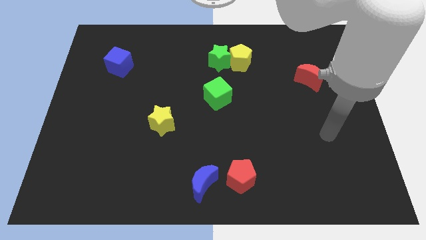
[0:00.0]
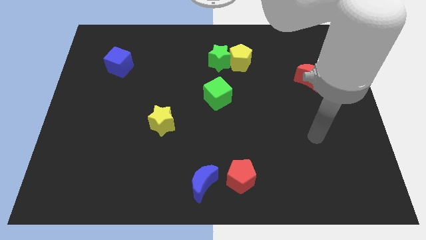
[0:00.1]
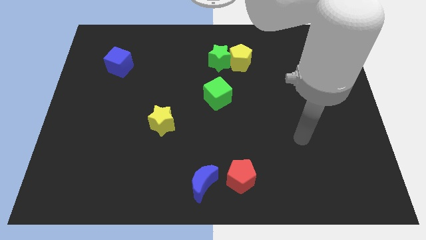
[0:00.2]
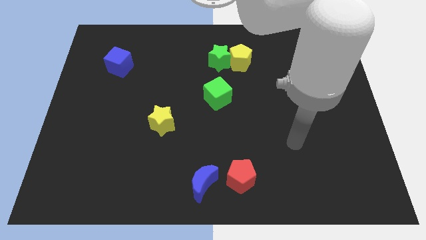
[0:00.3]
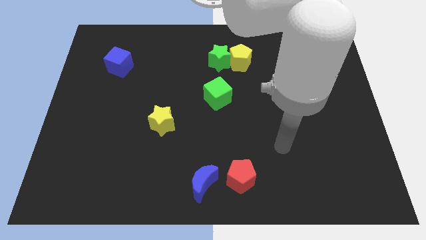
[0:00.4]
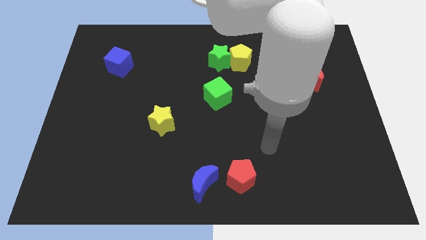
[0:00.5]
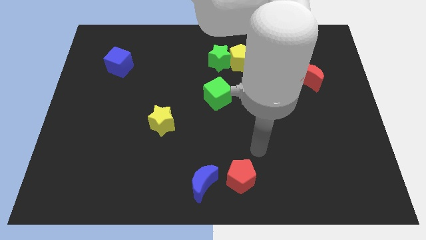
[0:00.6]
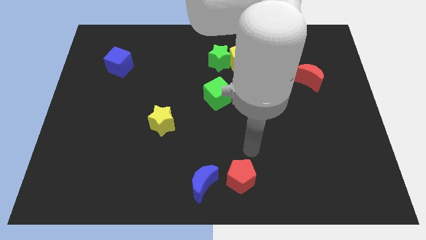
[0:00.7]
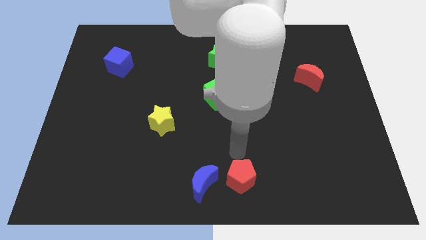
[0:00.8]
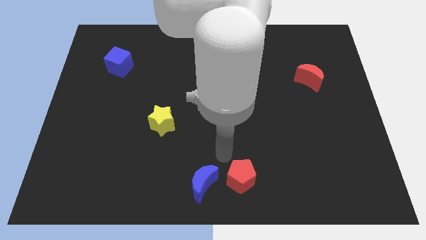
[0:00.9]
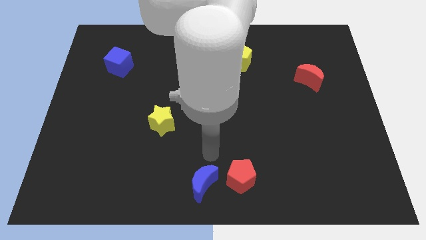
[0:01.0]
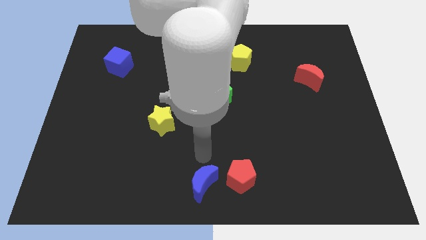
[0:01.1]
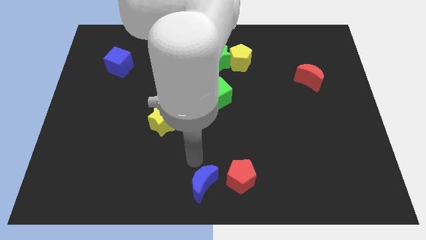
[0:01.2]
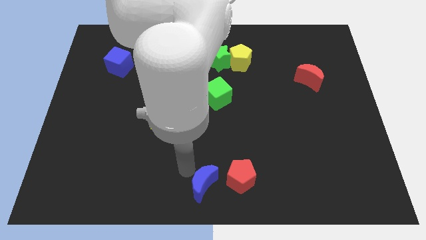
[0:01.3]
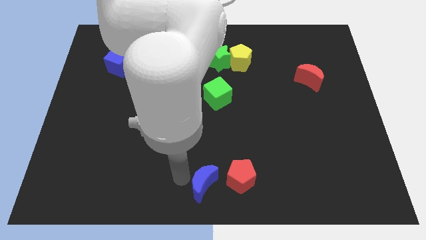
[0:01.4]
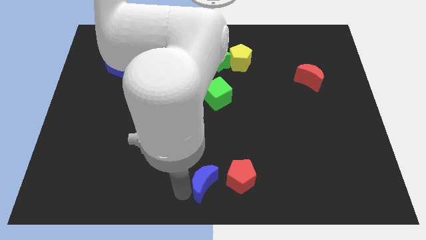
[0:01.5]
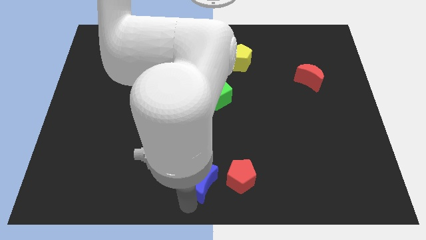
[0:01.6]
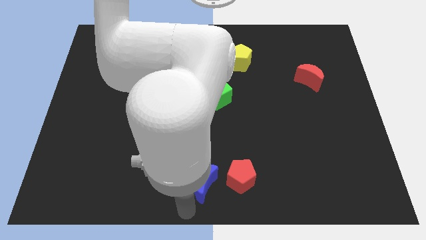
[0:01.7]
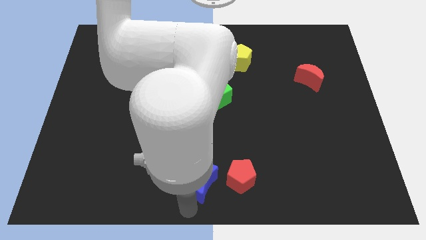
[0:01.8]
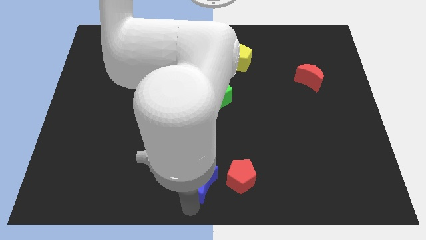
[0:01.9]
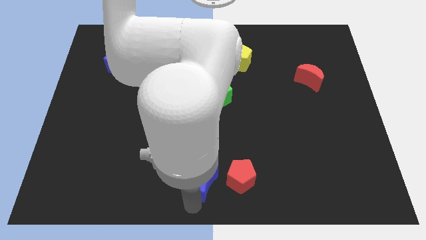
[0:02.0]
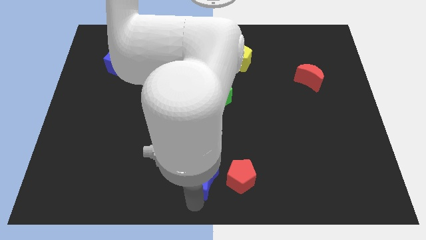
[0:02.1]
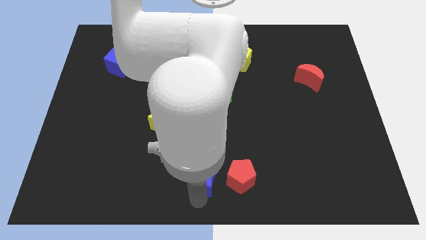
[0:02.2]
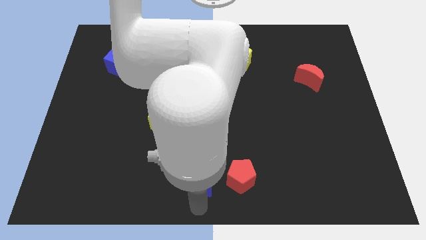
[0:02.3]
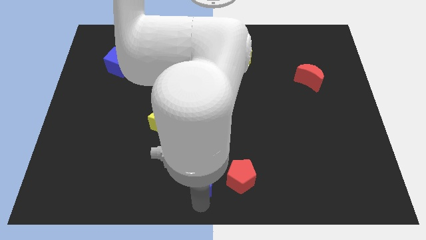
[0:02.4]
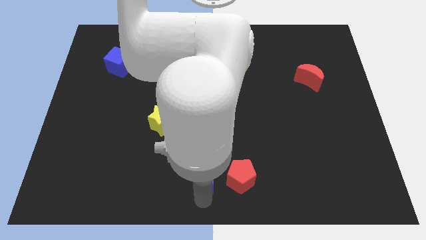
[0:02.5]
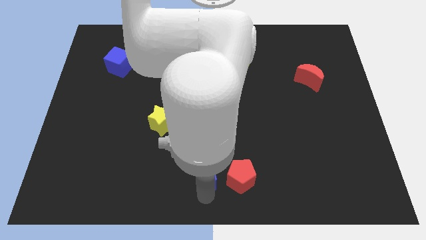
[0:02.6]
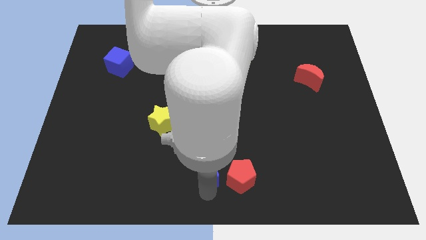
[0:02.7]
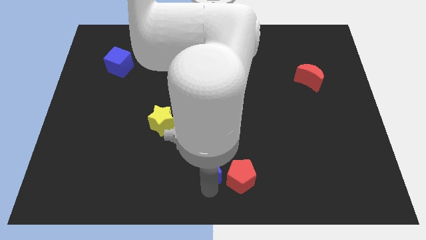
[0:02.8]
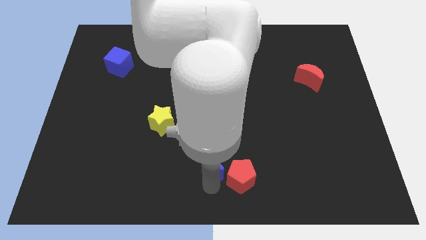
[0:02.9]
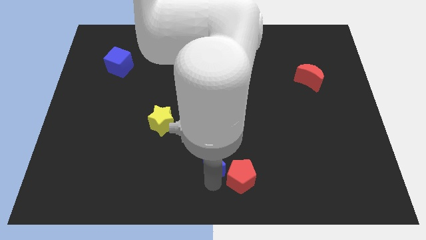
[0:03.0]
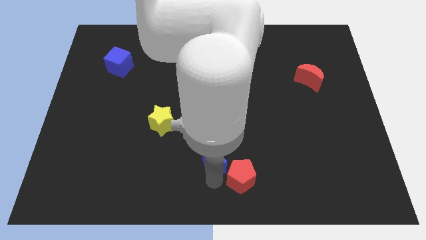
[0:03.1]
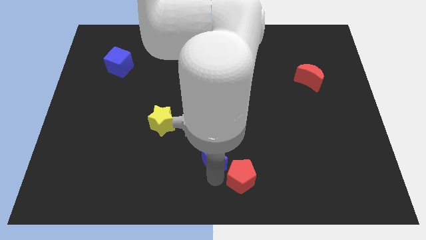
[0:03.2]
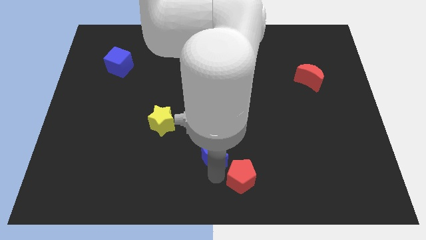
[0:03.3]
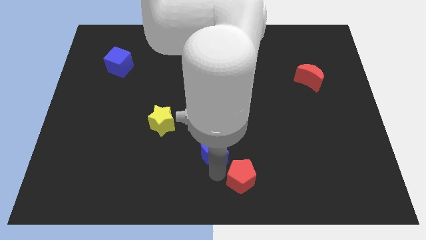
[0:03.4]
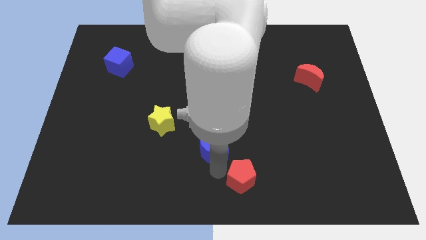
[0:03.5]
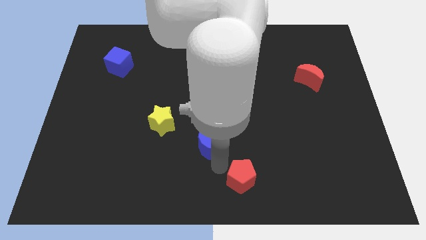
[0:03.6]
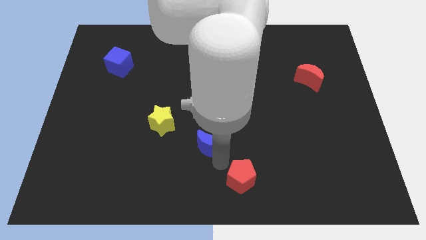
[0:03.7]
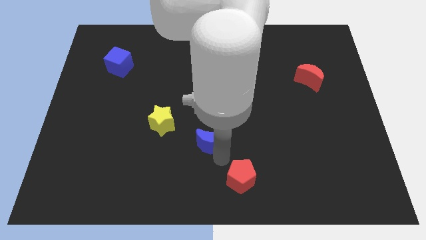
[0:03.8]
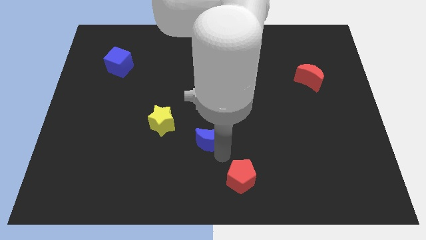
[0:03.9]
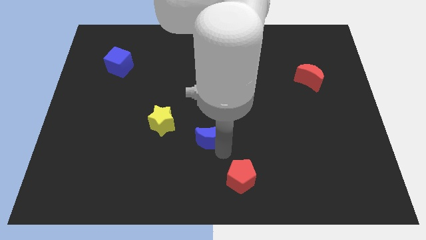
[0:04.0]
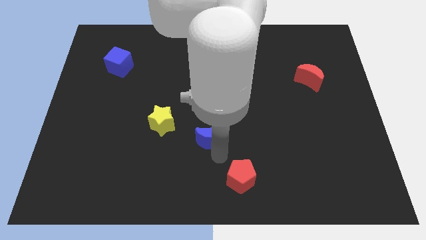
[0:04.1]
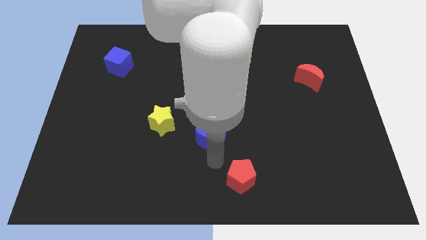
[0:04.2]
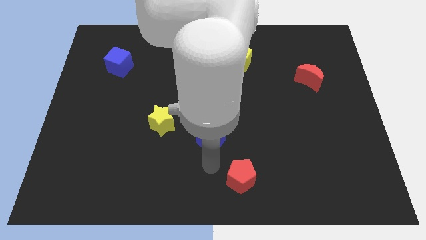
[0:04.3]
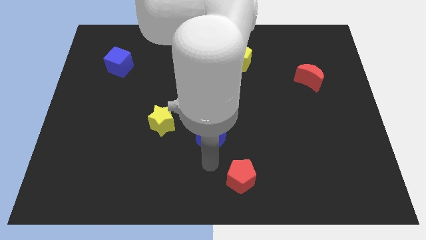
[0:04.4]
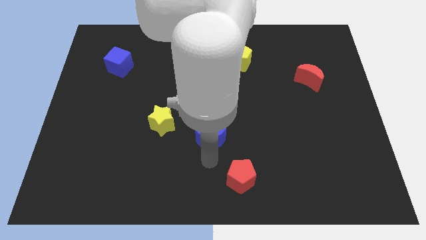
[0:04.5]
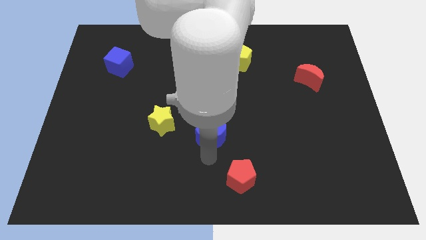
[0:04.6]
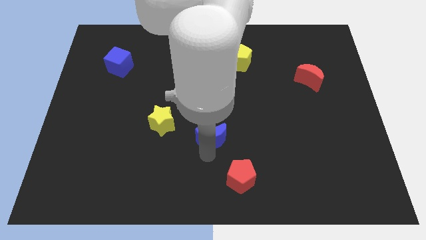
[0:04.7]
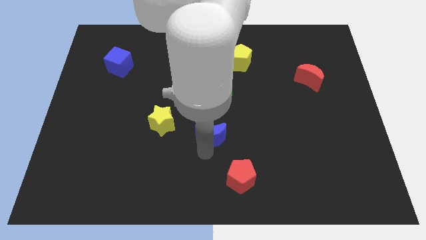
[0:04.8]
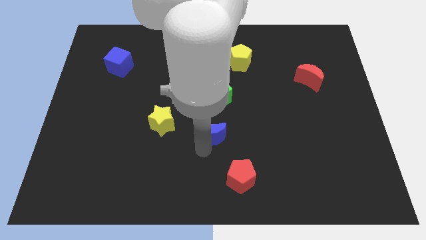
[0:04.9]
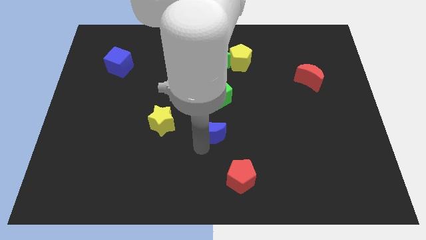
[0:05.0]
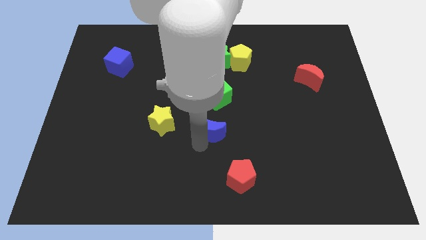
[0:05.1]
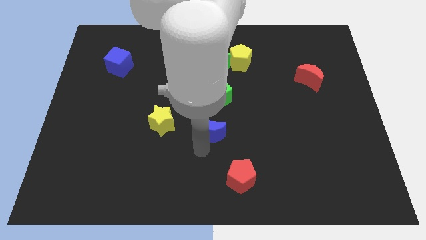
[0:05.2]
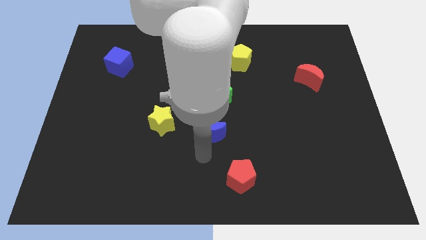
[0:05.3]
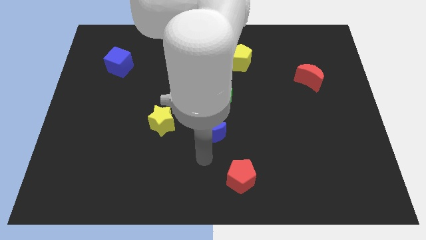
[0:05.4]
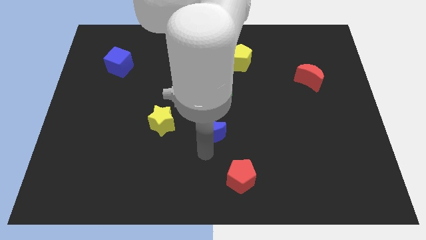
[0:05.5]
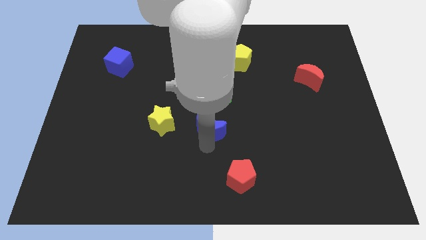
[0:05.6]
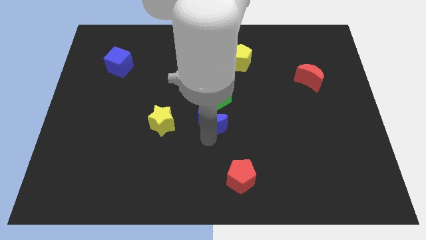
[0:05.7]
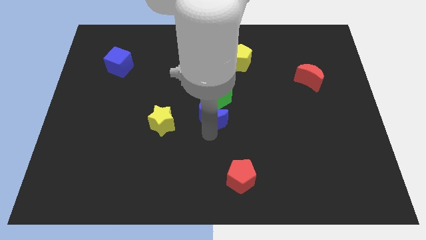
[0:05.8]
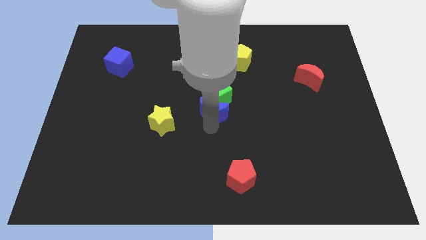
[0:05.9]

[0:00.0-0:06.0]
move the blue moon close to the green cube

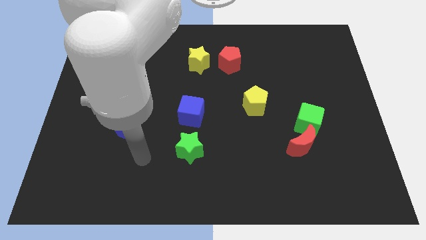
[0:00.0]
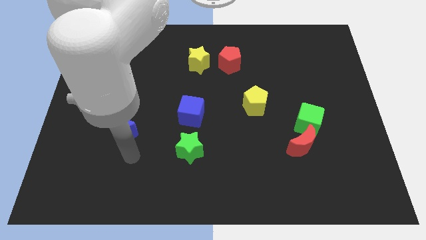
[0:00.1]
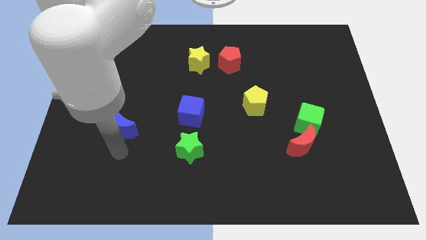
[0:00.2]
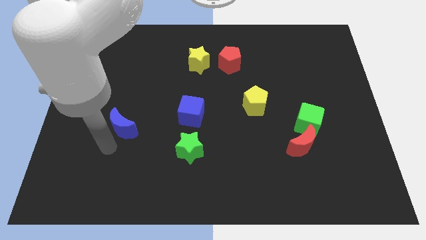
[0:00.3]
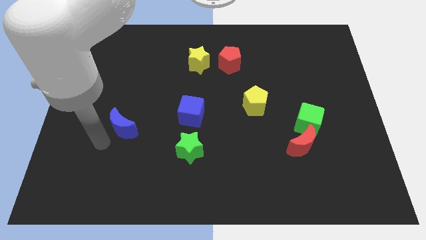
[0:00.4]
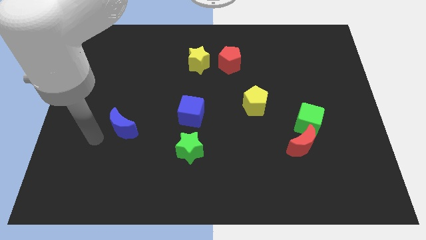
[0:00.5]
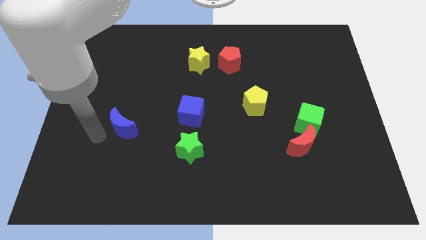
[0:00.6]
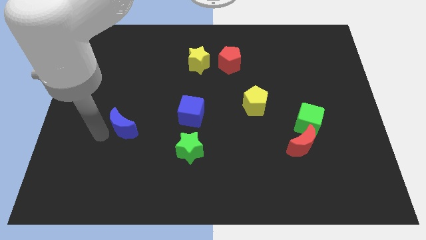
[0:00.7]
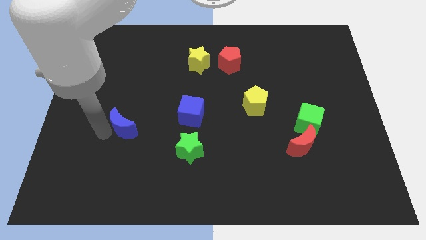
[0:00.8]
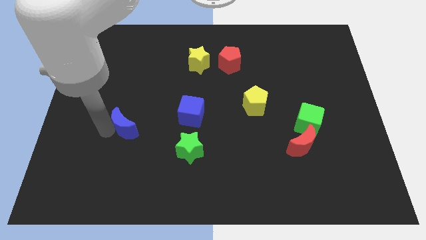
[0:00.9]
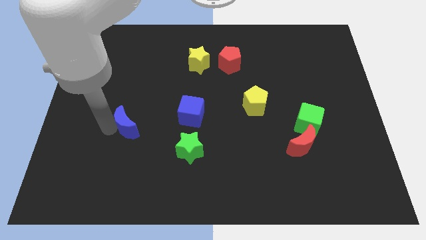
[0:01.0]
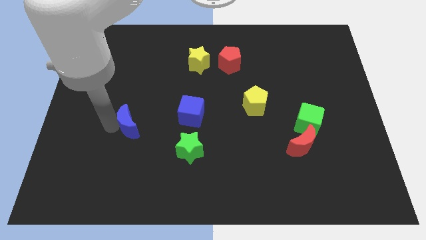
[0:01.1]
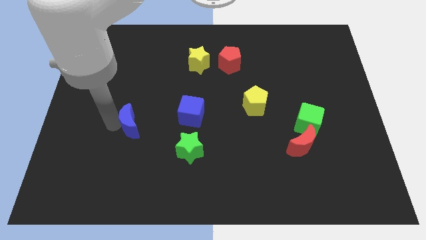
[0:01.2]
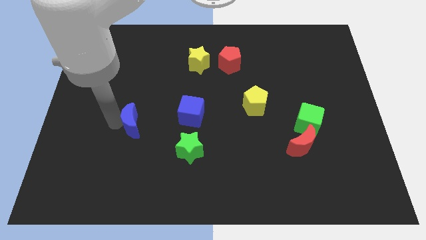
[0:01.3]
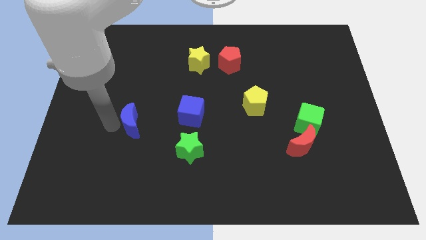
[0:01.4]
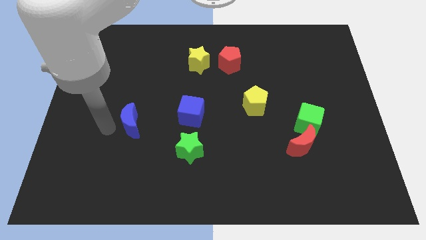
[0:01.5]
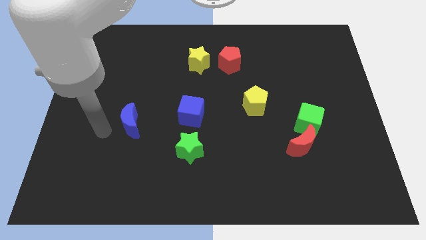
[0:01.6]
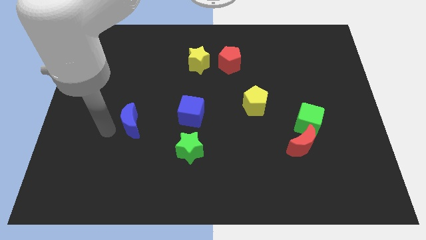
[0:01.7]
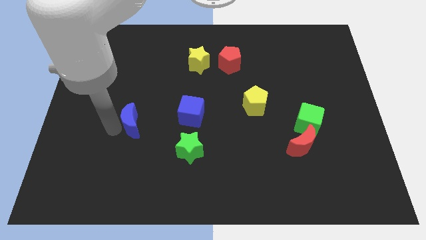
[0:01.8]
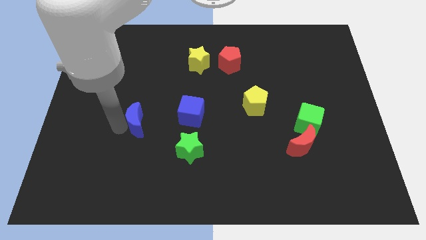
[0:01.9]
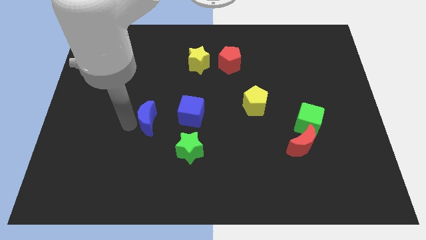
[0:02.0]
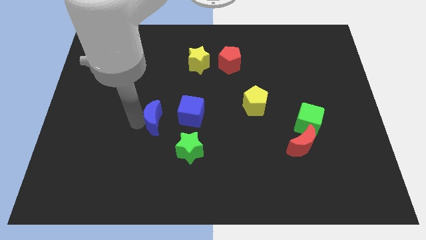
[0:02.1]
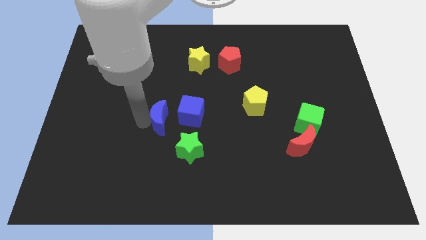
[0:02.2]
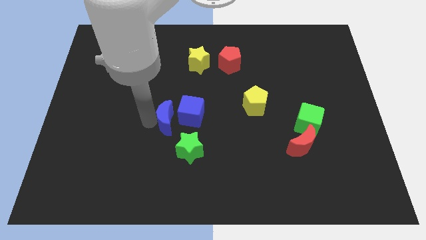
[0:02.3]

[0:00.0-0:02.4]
slide the blue moon to the blue cube
